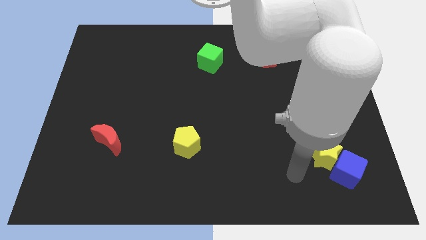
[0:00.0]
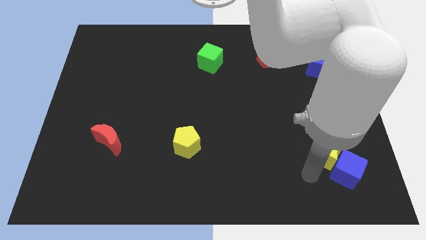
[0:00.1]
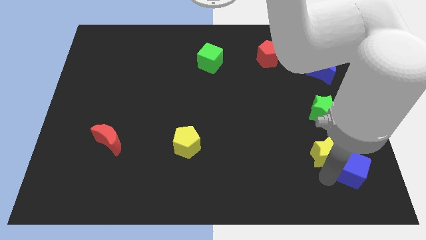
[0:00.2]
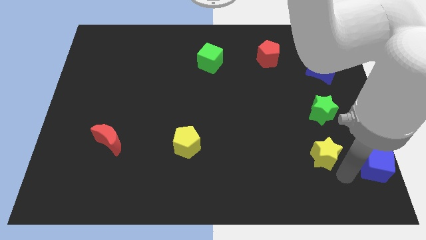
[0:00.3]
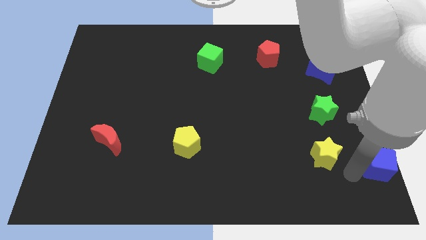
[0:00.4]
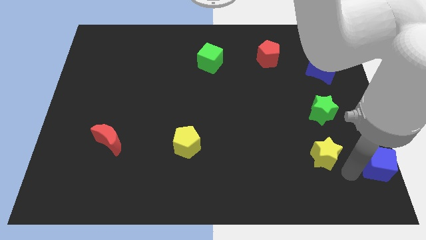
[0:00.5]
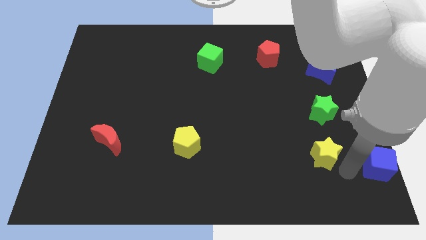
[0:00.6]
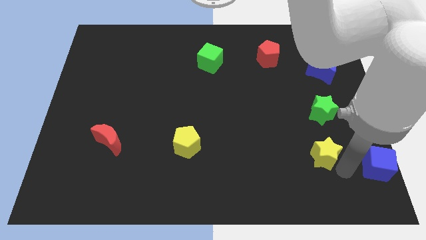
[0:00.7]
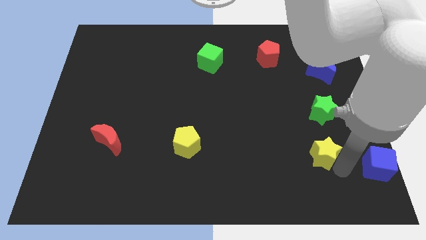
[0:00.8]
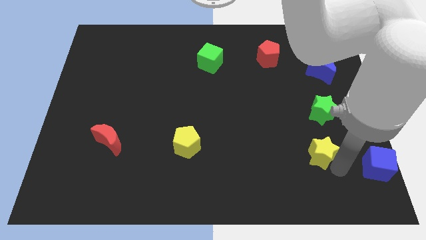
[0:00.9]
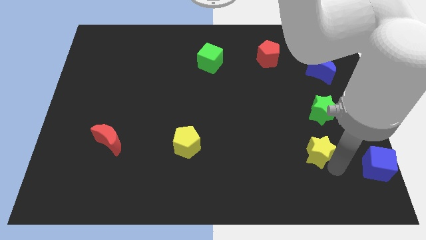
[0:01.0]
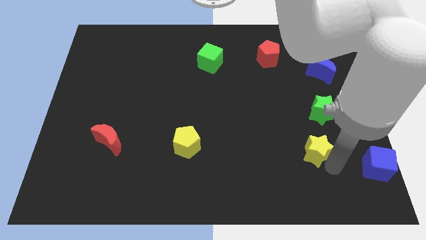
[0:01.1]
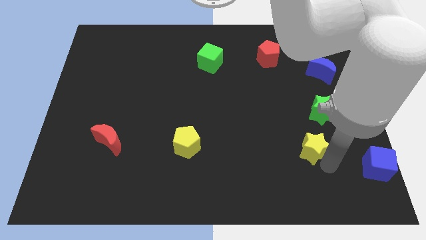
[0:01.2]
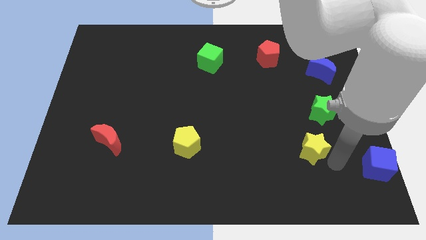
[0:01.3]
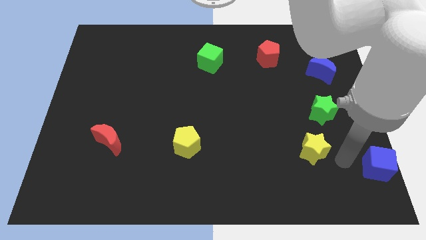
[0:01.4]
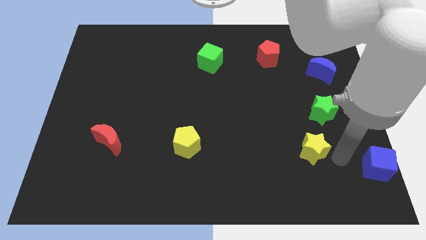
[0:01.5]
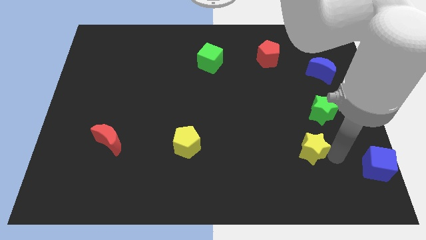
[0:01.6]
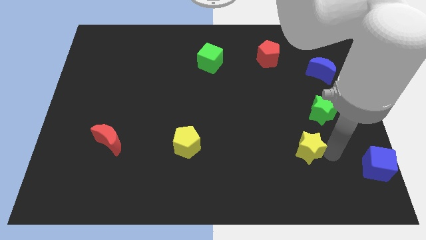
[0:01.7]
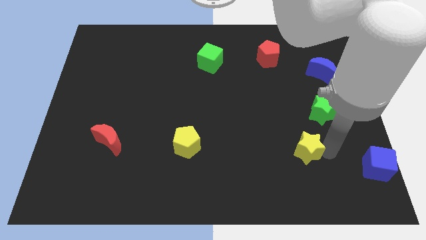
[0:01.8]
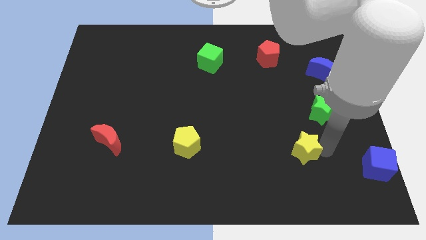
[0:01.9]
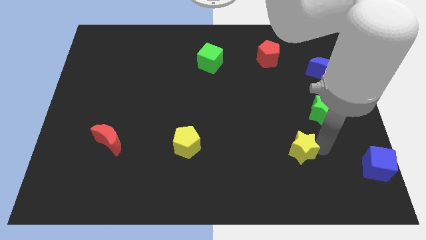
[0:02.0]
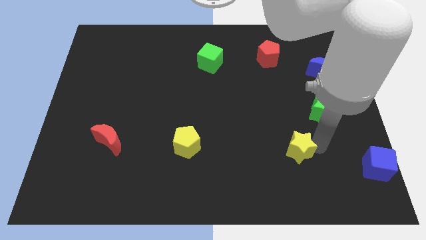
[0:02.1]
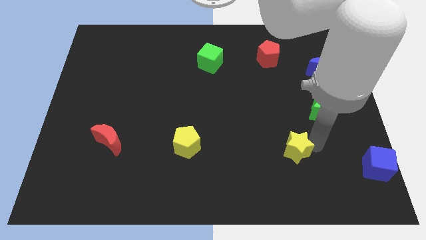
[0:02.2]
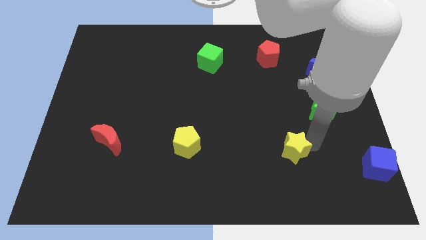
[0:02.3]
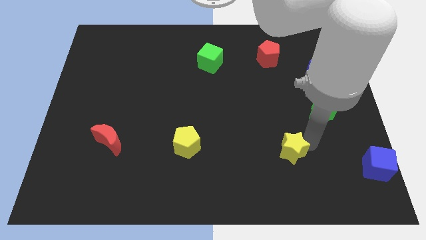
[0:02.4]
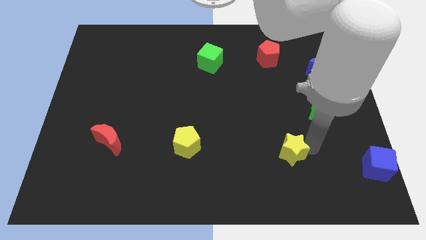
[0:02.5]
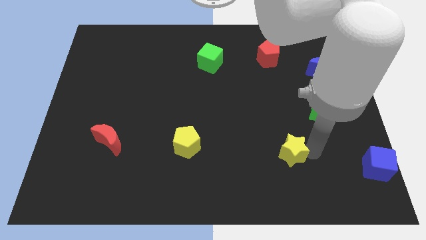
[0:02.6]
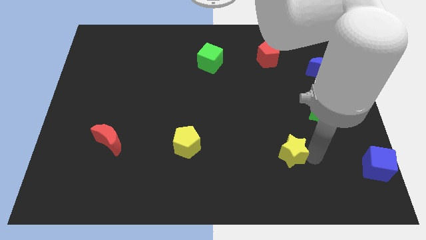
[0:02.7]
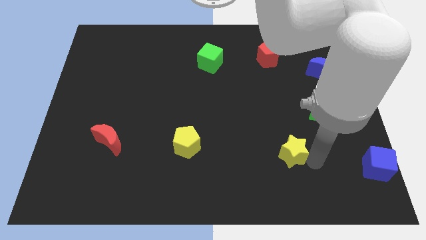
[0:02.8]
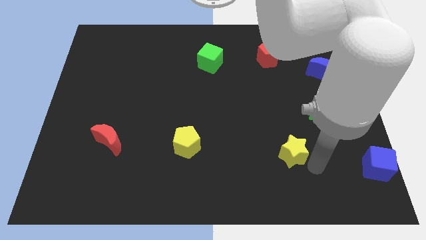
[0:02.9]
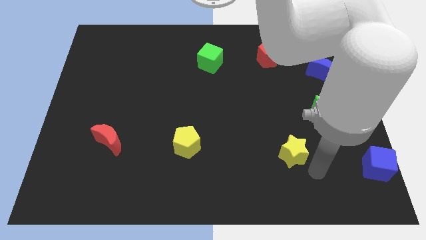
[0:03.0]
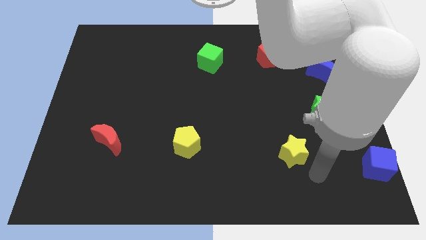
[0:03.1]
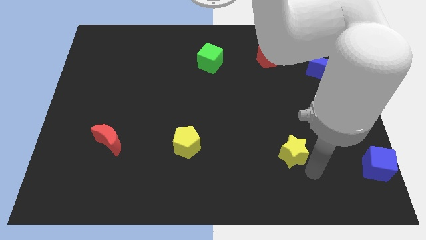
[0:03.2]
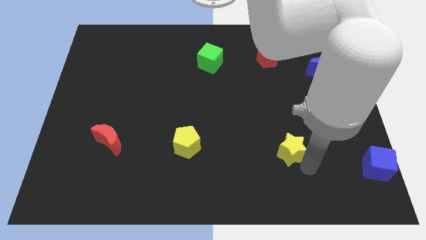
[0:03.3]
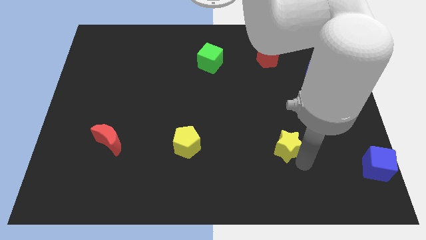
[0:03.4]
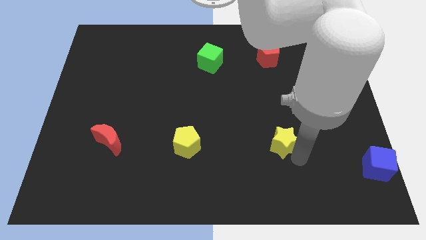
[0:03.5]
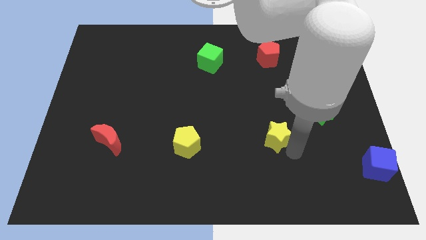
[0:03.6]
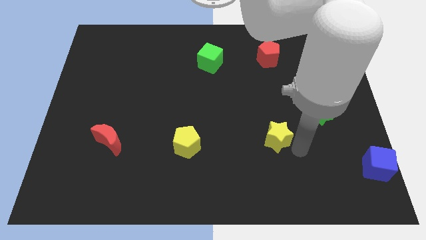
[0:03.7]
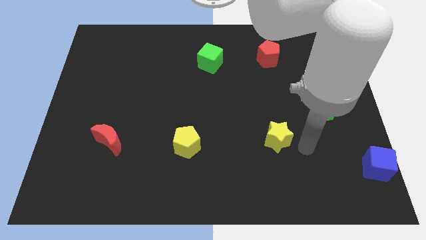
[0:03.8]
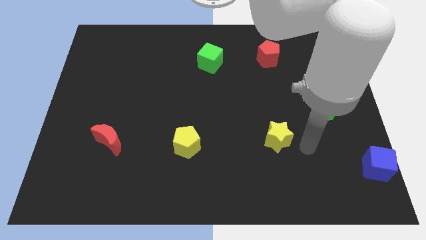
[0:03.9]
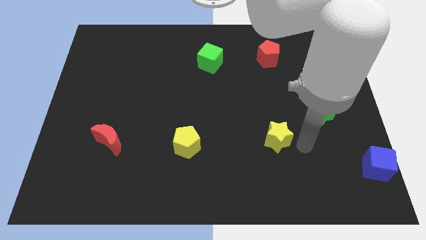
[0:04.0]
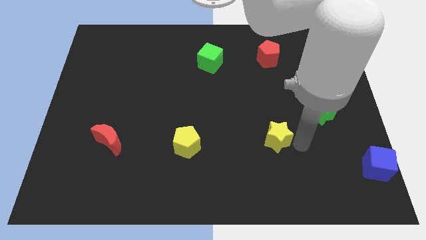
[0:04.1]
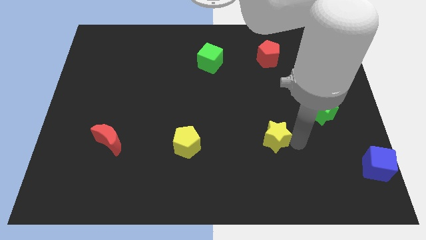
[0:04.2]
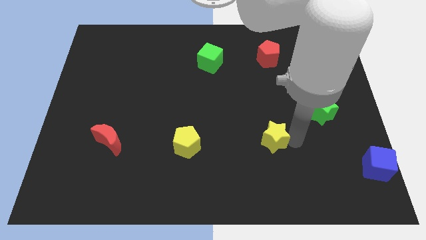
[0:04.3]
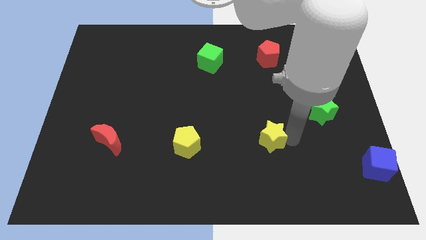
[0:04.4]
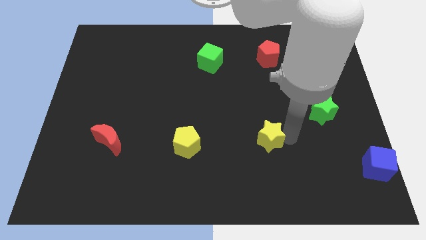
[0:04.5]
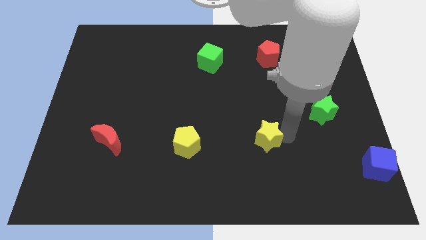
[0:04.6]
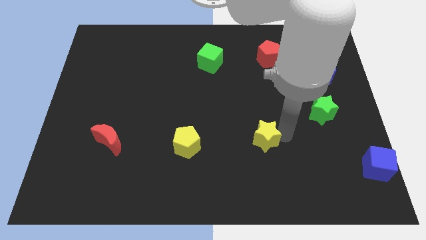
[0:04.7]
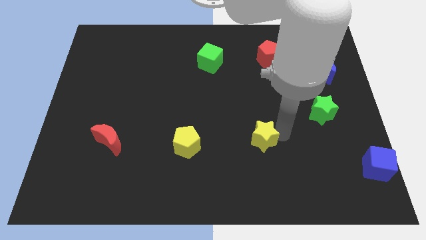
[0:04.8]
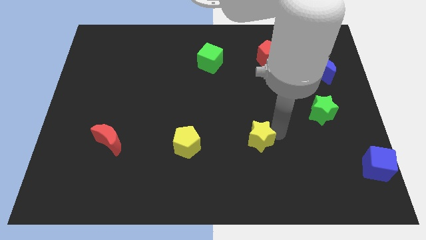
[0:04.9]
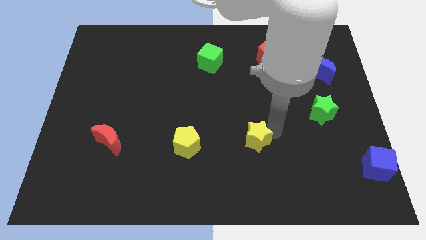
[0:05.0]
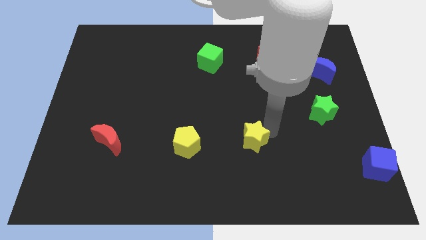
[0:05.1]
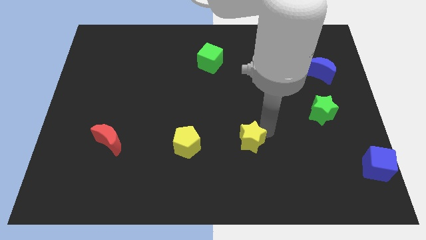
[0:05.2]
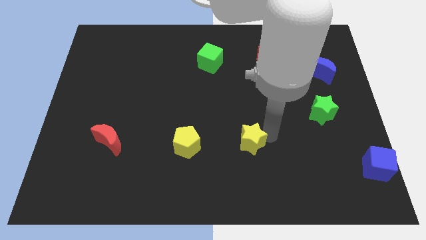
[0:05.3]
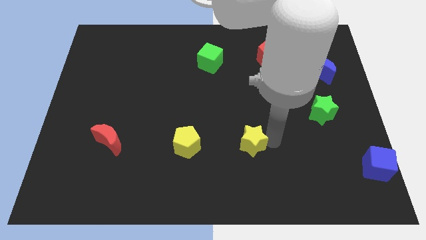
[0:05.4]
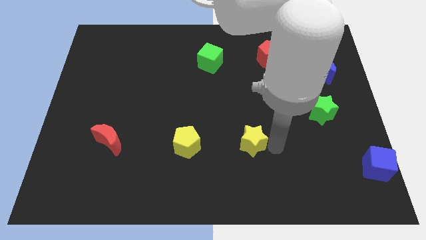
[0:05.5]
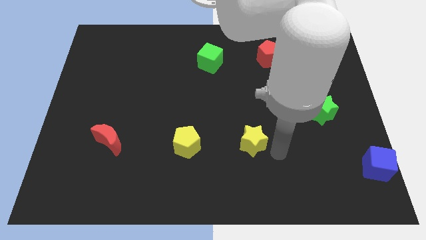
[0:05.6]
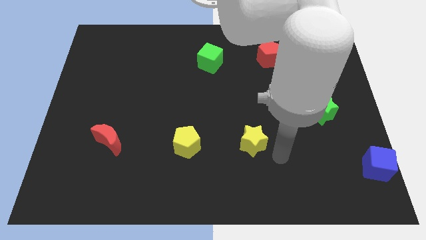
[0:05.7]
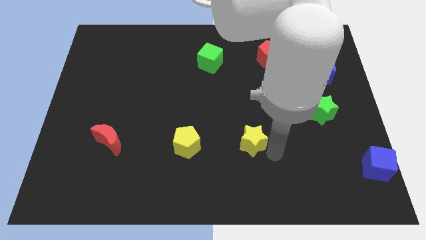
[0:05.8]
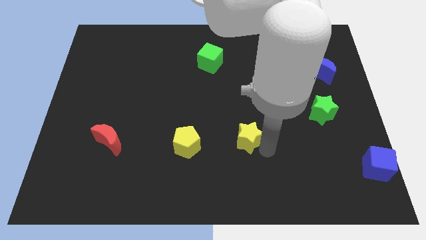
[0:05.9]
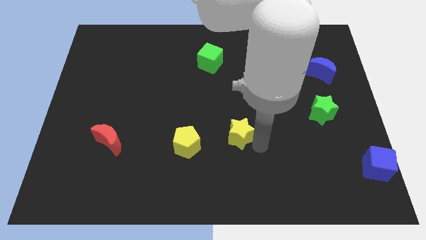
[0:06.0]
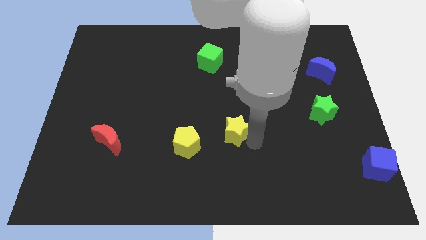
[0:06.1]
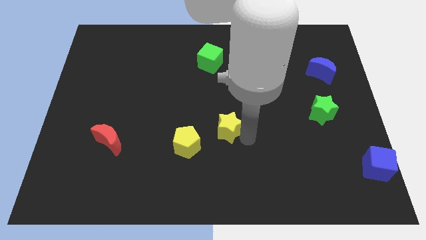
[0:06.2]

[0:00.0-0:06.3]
put the yellow star diagonally up and to the right of the yellow pentagon

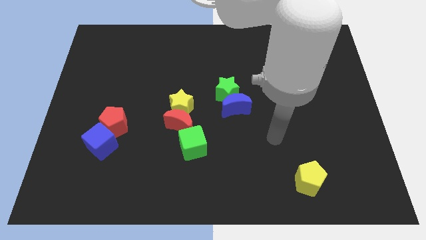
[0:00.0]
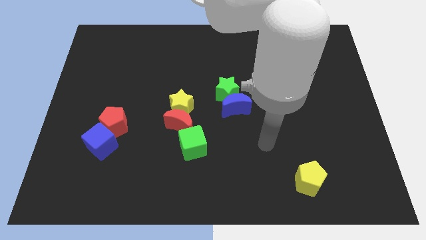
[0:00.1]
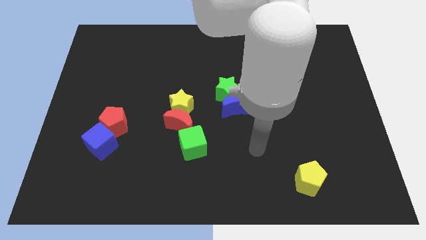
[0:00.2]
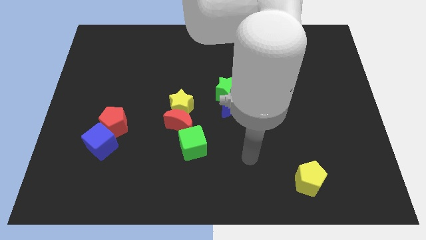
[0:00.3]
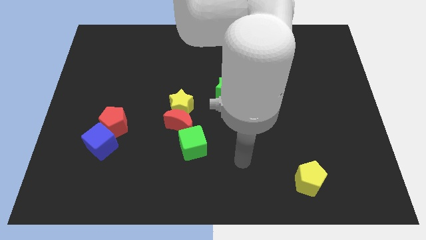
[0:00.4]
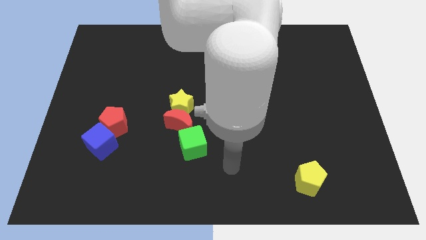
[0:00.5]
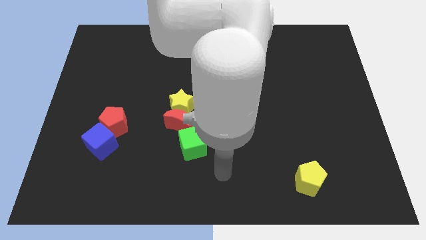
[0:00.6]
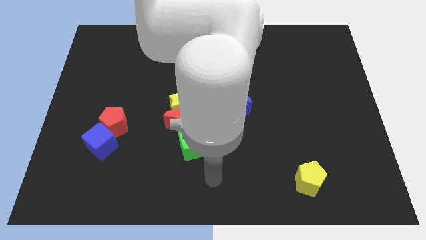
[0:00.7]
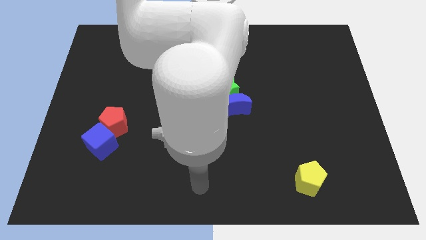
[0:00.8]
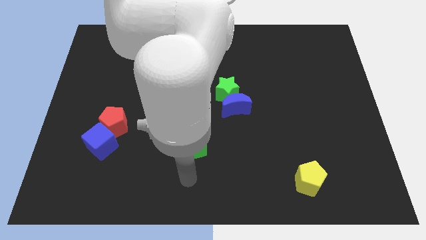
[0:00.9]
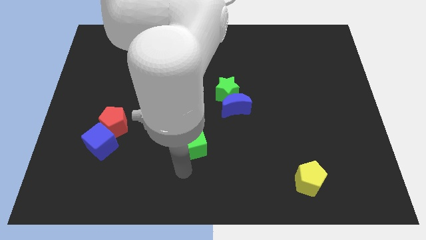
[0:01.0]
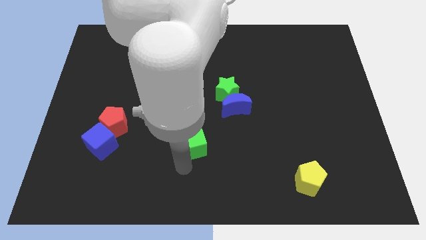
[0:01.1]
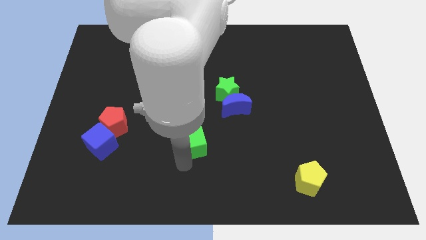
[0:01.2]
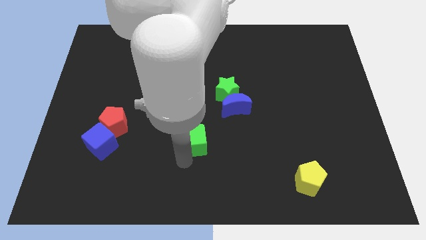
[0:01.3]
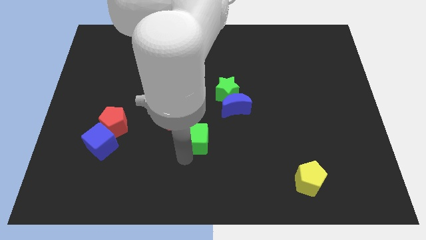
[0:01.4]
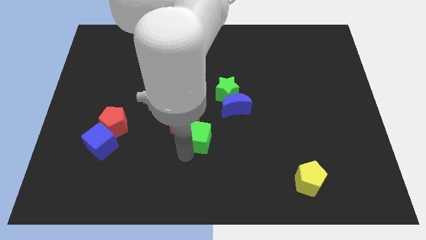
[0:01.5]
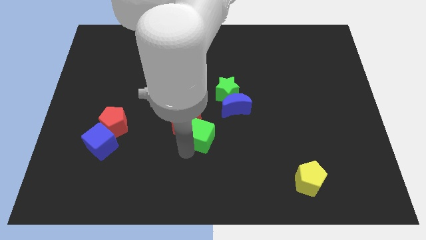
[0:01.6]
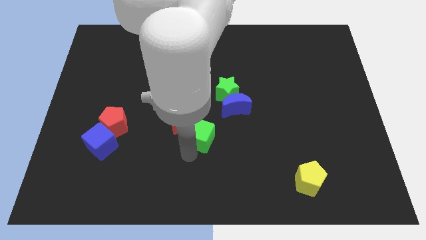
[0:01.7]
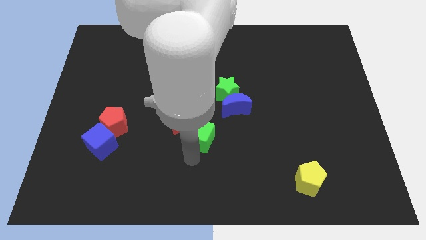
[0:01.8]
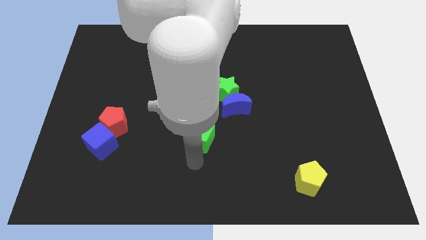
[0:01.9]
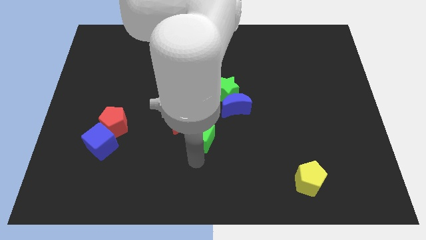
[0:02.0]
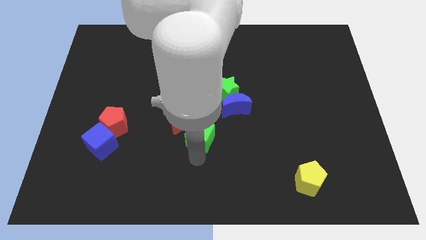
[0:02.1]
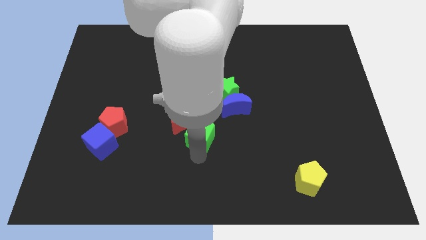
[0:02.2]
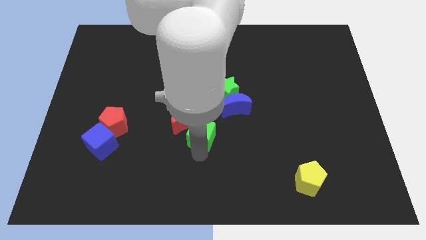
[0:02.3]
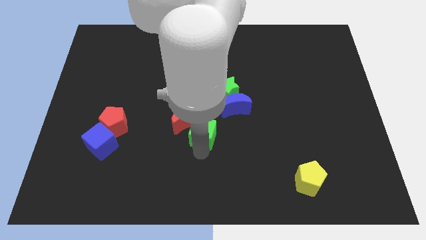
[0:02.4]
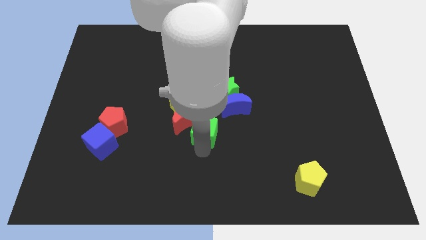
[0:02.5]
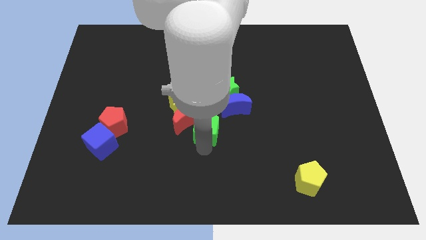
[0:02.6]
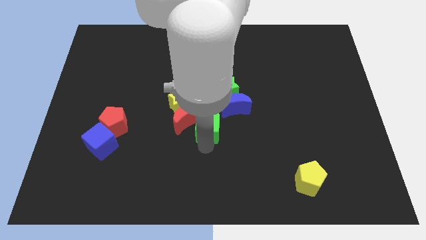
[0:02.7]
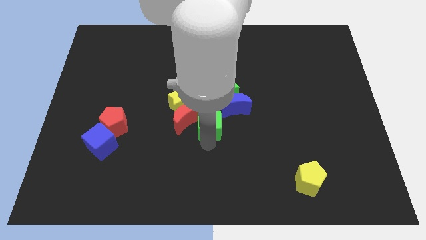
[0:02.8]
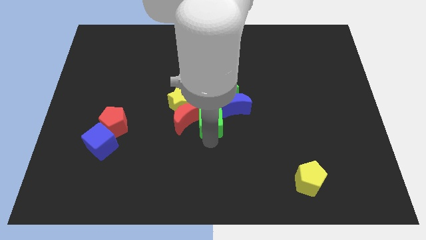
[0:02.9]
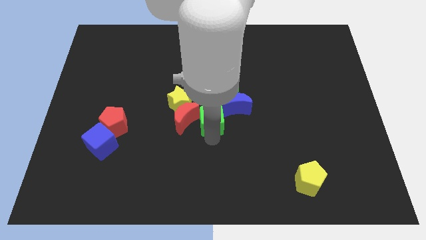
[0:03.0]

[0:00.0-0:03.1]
put the green cube to the top right side of the red moon
